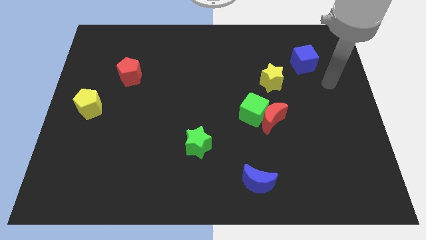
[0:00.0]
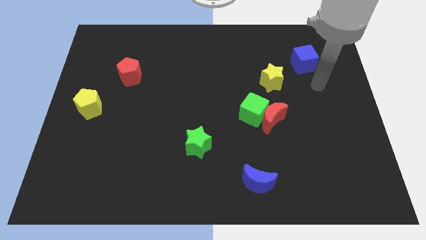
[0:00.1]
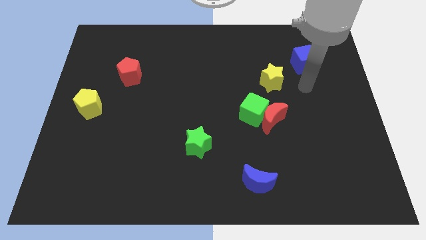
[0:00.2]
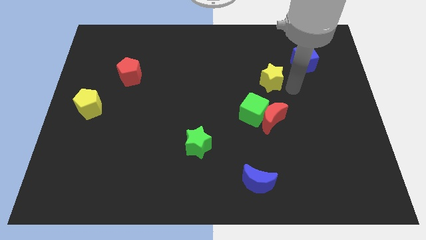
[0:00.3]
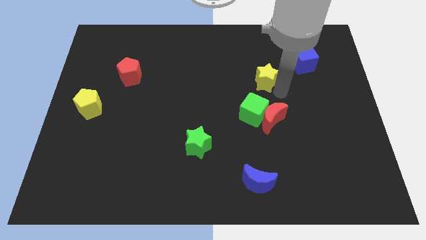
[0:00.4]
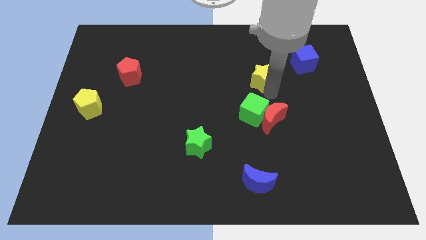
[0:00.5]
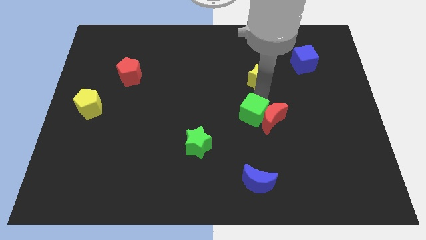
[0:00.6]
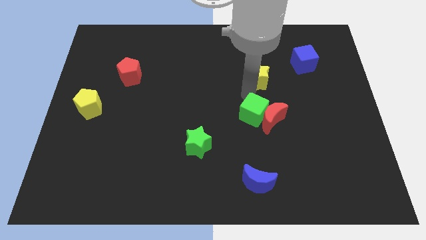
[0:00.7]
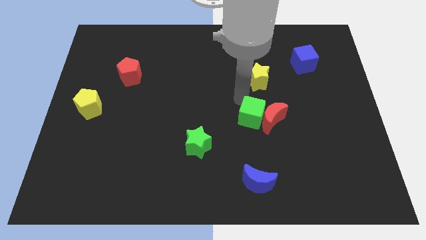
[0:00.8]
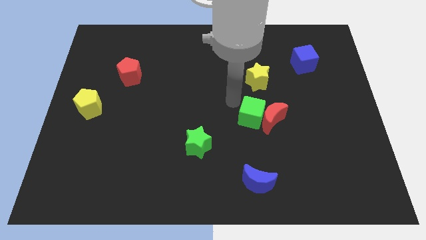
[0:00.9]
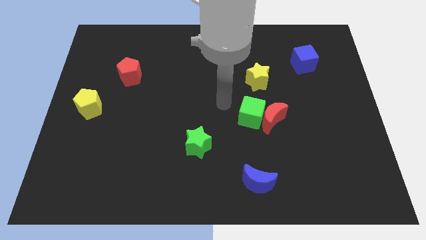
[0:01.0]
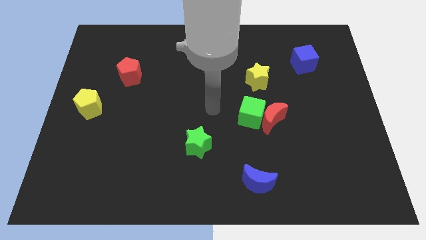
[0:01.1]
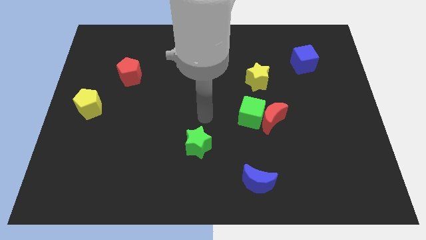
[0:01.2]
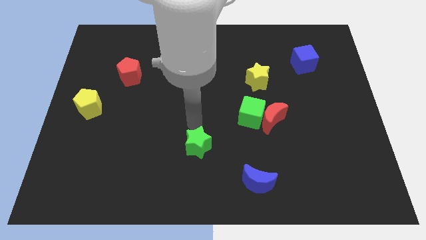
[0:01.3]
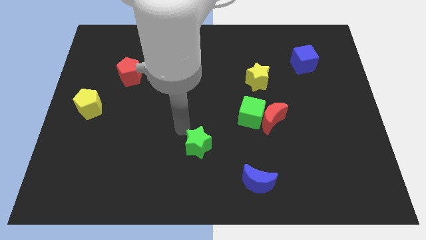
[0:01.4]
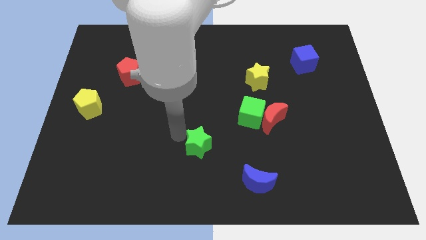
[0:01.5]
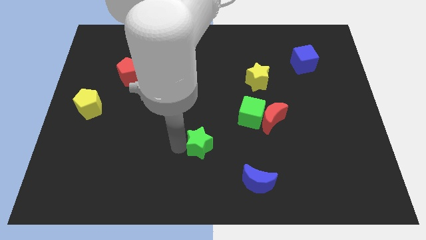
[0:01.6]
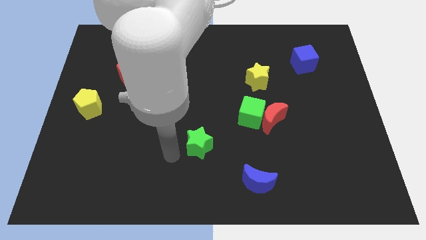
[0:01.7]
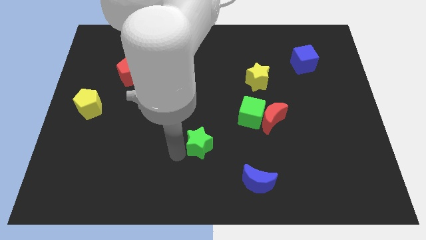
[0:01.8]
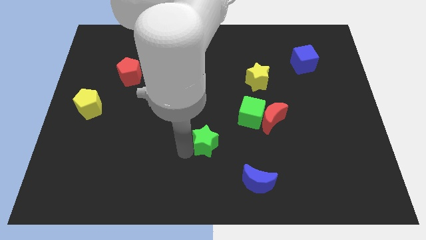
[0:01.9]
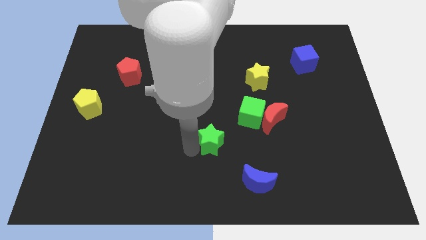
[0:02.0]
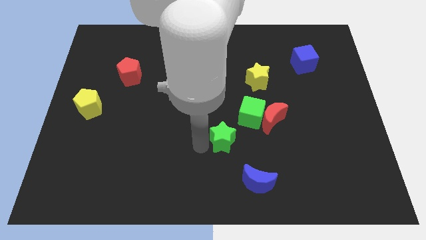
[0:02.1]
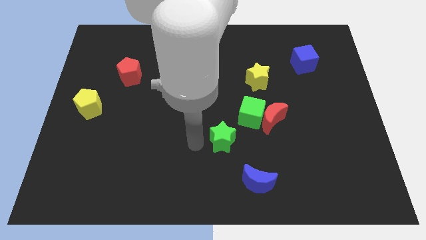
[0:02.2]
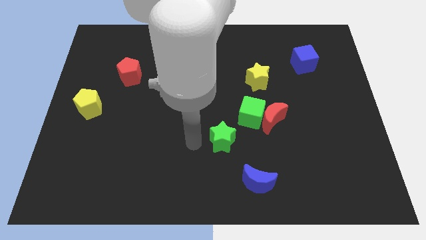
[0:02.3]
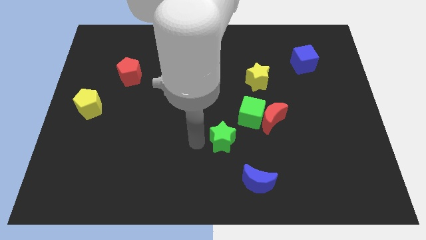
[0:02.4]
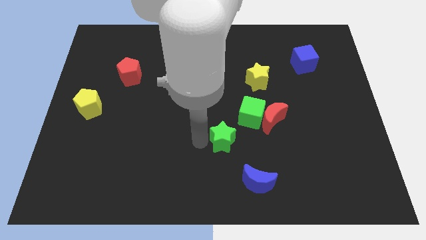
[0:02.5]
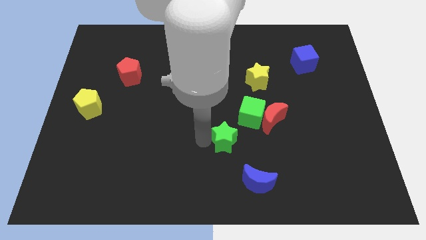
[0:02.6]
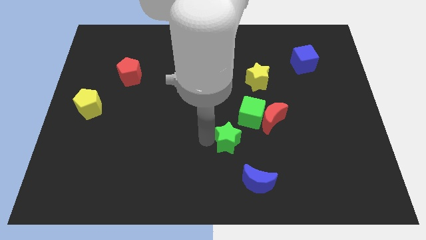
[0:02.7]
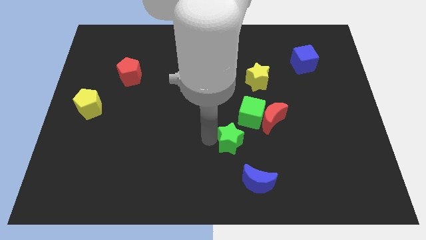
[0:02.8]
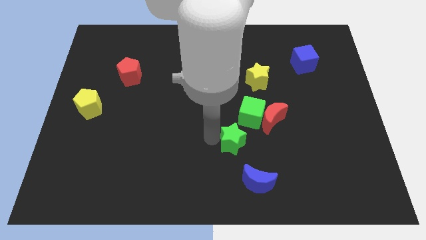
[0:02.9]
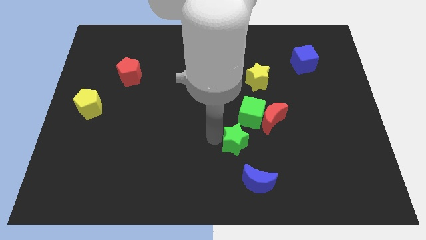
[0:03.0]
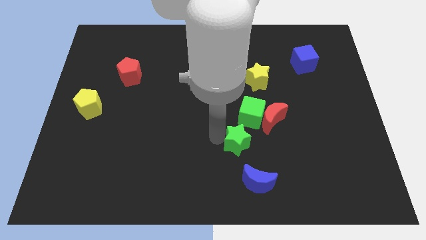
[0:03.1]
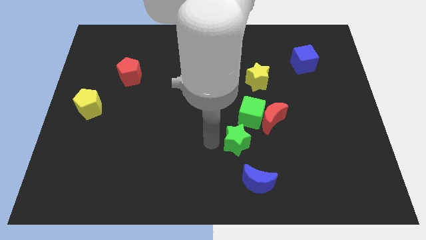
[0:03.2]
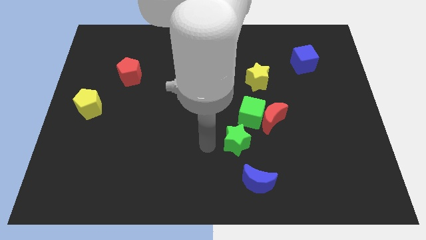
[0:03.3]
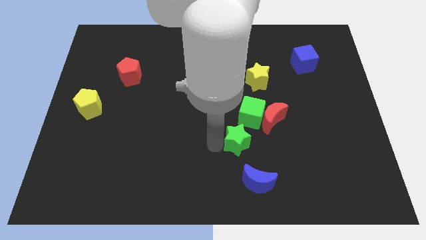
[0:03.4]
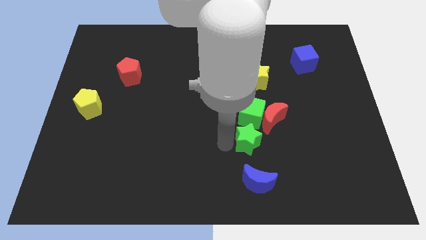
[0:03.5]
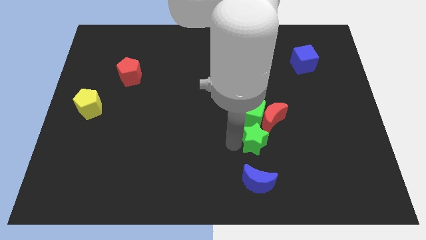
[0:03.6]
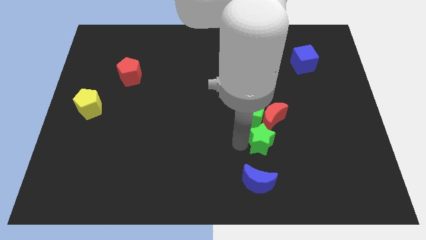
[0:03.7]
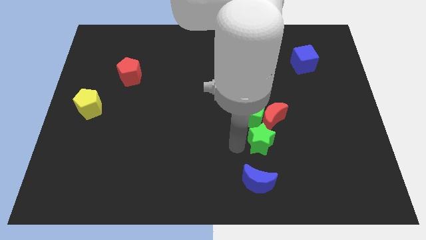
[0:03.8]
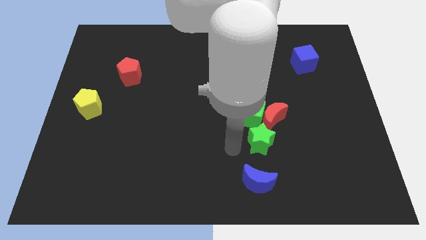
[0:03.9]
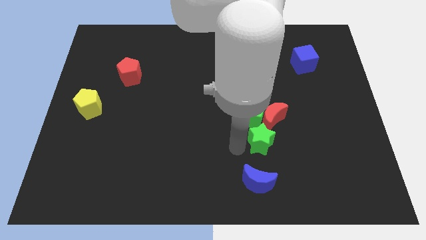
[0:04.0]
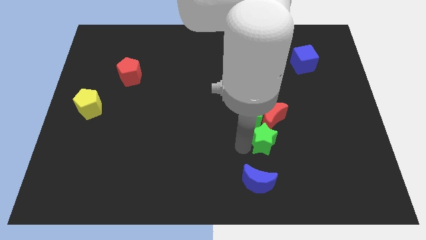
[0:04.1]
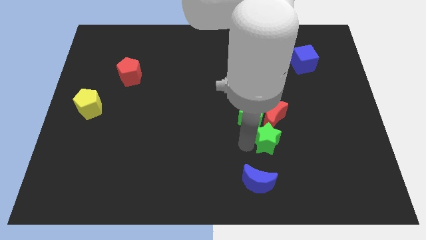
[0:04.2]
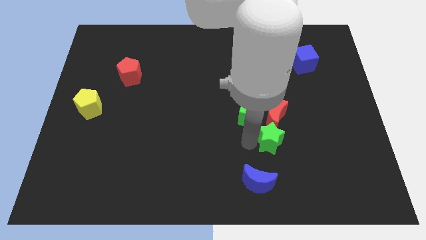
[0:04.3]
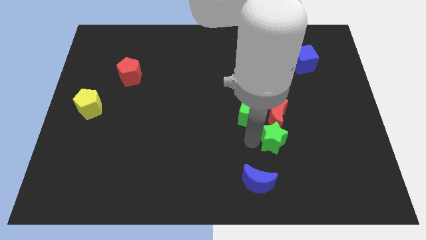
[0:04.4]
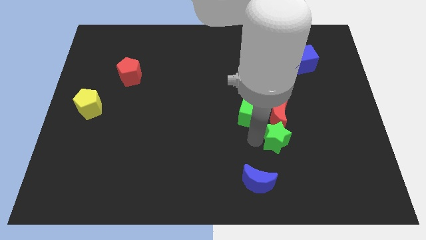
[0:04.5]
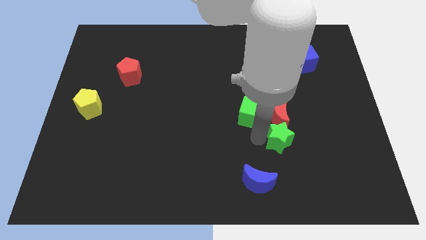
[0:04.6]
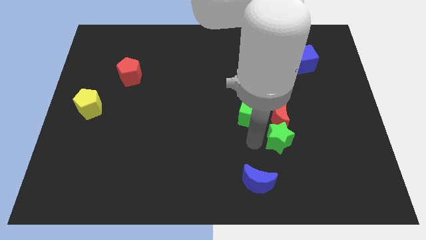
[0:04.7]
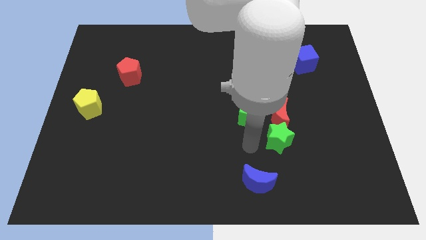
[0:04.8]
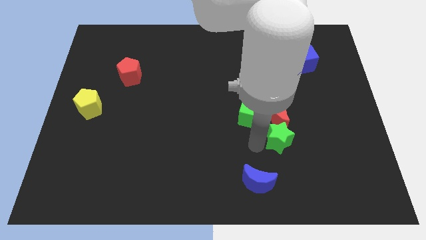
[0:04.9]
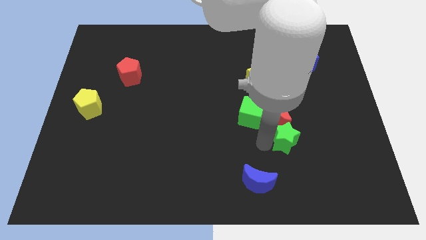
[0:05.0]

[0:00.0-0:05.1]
slide the green star diagonally down and to the right of the red moon

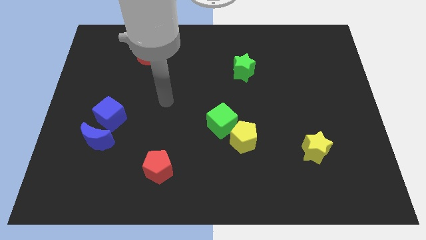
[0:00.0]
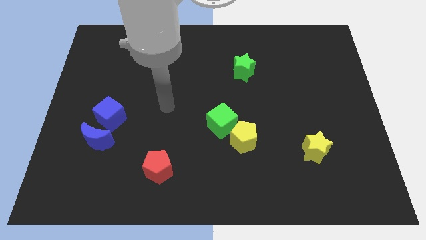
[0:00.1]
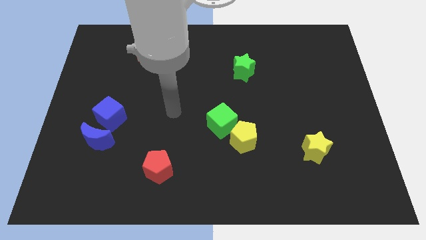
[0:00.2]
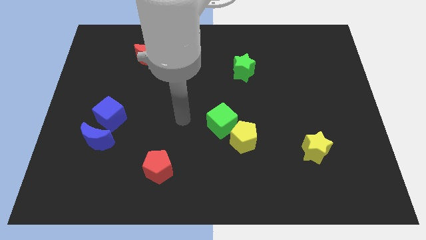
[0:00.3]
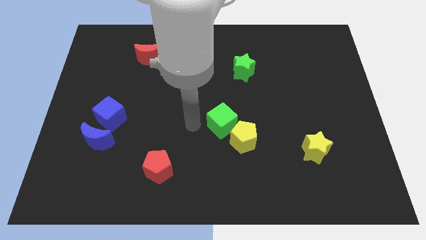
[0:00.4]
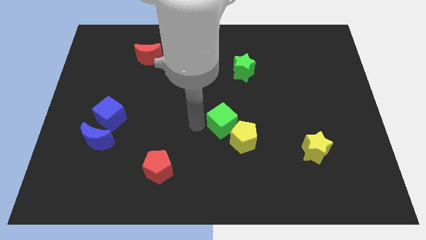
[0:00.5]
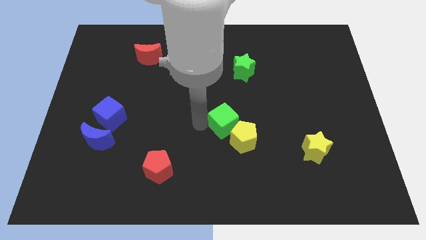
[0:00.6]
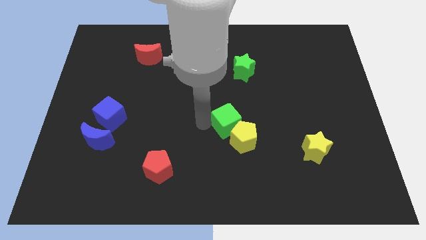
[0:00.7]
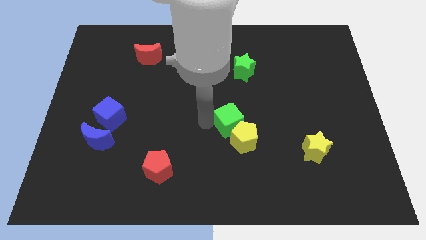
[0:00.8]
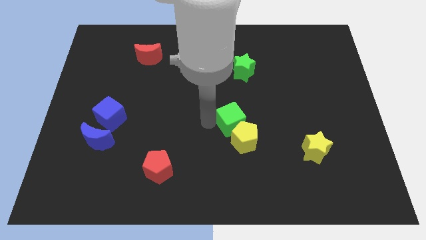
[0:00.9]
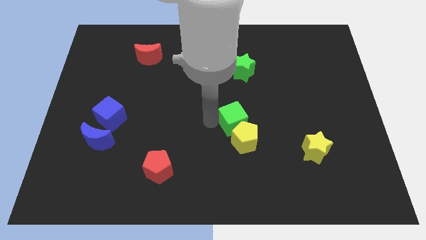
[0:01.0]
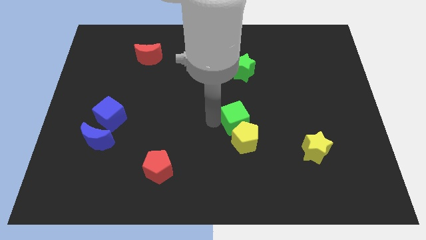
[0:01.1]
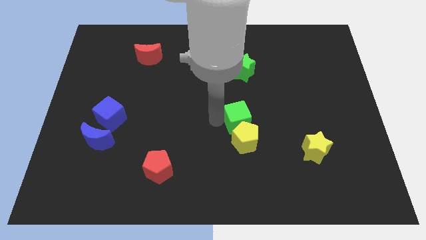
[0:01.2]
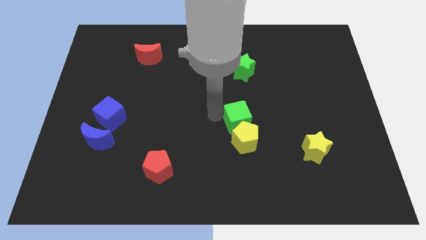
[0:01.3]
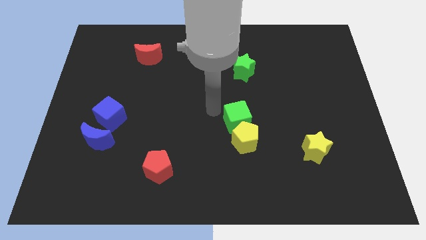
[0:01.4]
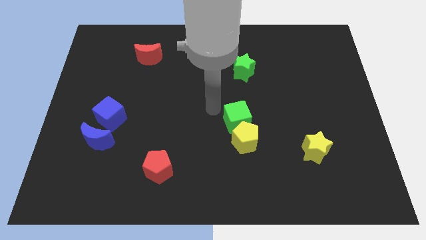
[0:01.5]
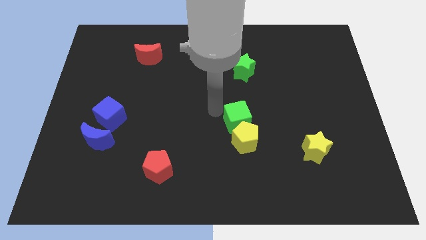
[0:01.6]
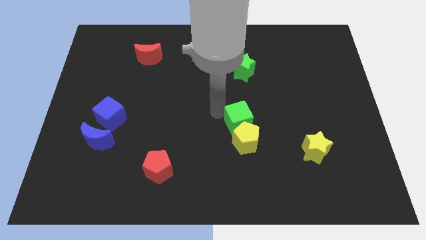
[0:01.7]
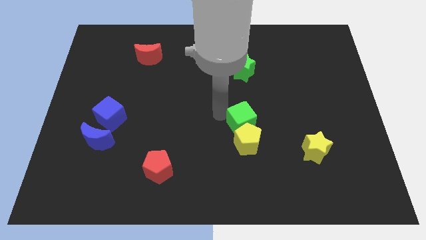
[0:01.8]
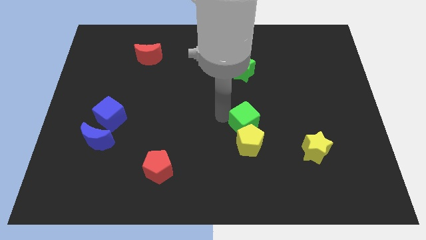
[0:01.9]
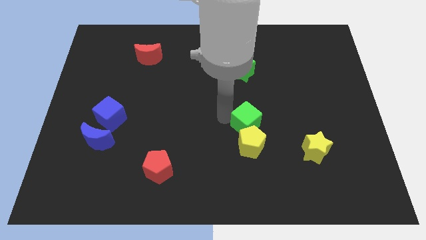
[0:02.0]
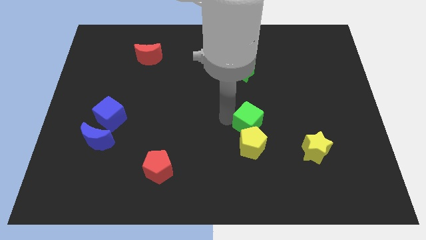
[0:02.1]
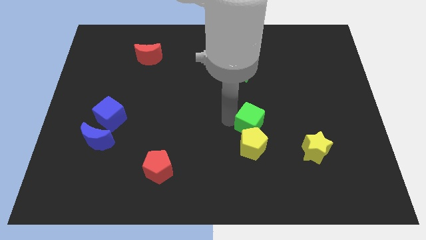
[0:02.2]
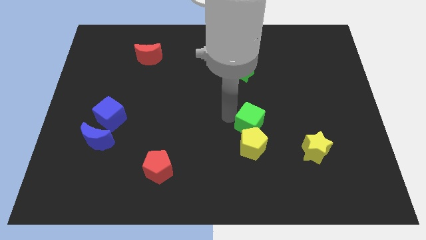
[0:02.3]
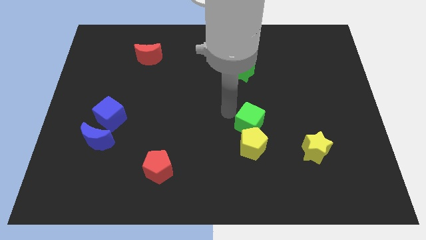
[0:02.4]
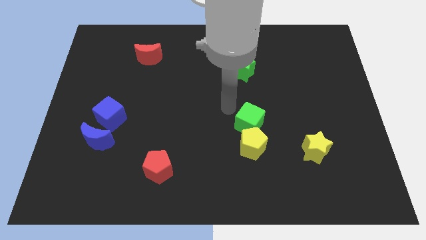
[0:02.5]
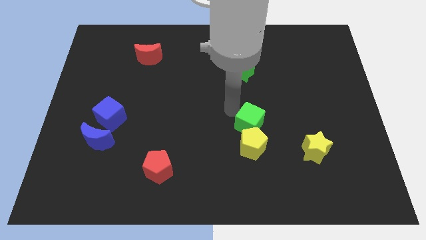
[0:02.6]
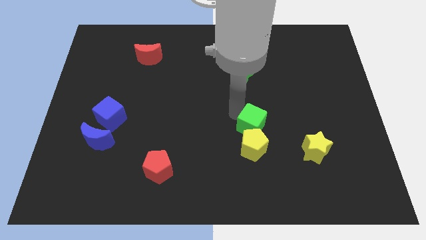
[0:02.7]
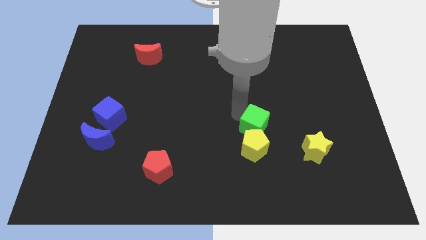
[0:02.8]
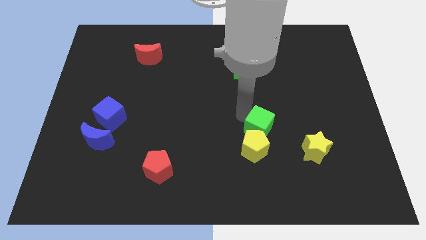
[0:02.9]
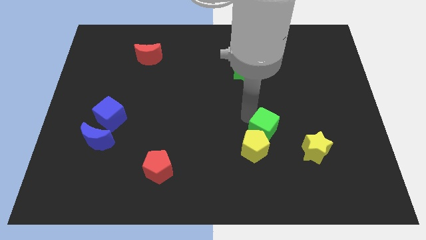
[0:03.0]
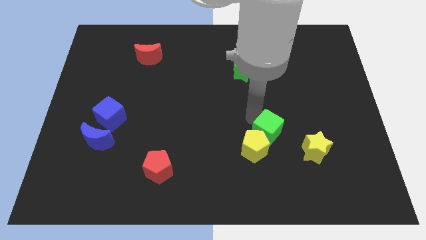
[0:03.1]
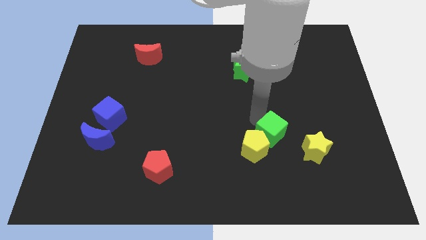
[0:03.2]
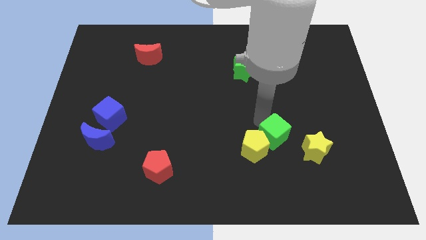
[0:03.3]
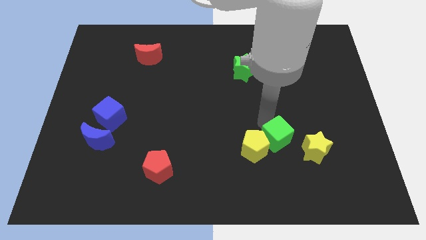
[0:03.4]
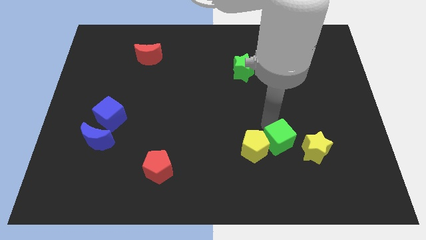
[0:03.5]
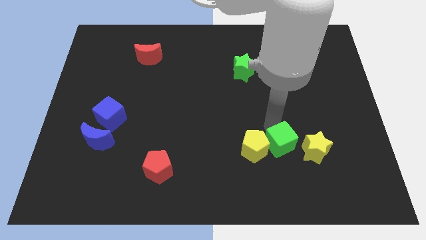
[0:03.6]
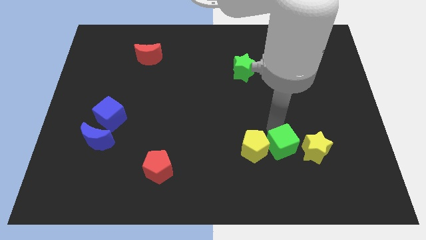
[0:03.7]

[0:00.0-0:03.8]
put the green cube to the bottom right side of the yellow pentagon
